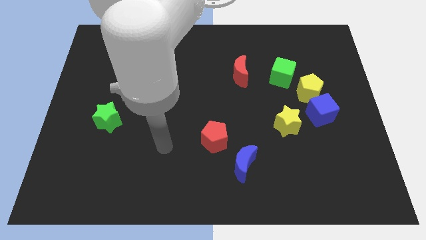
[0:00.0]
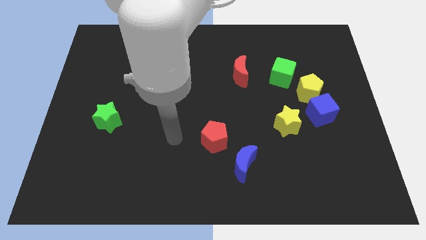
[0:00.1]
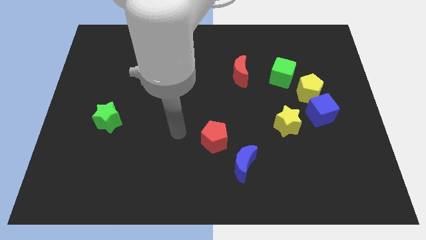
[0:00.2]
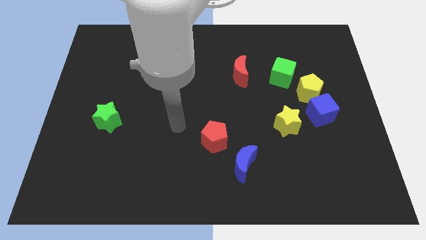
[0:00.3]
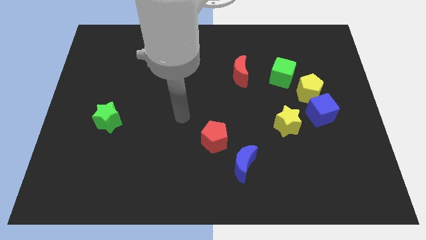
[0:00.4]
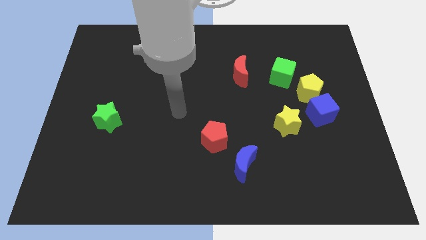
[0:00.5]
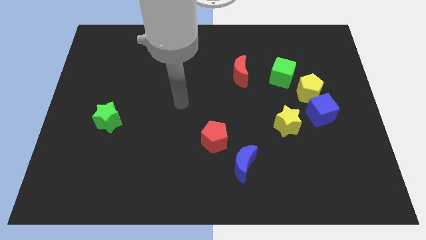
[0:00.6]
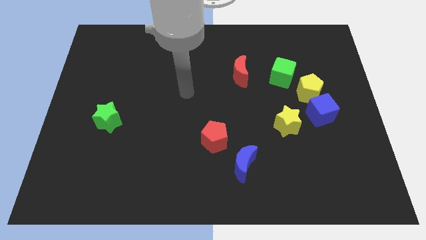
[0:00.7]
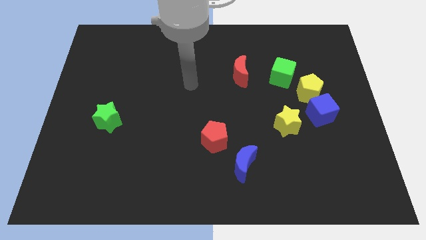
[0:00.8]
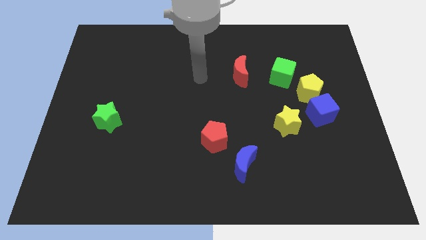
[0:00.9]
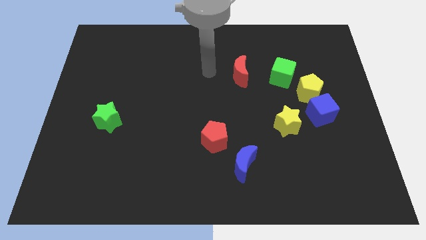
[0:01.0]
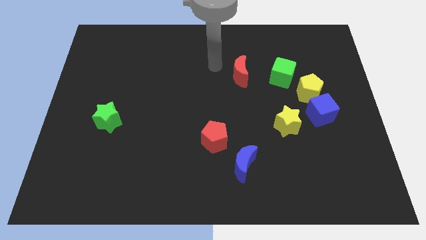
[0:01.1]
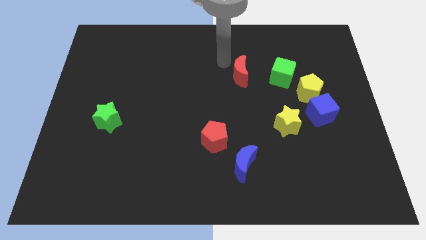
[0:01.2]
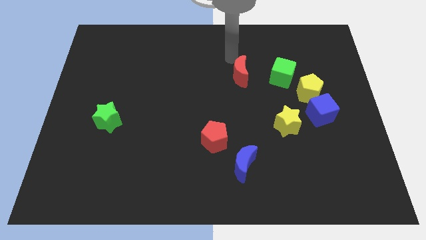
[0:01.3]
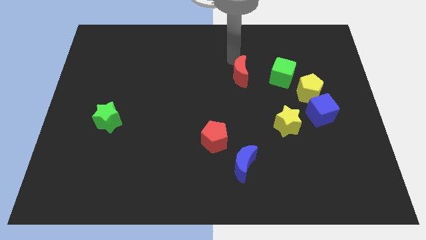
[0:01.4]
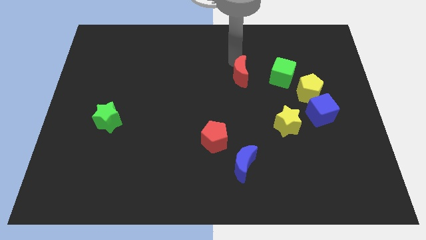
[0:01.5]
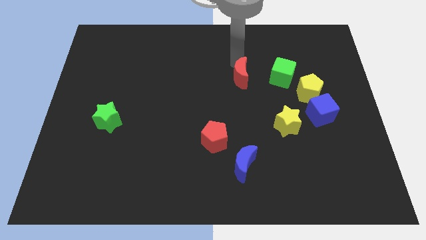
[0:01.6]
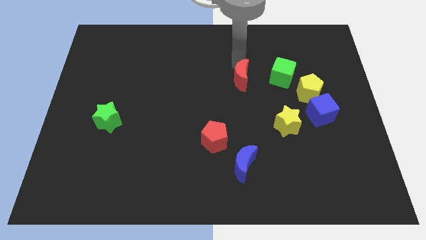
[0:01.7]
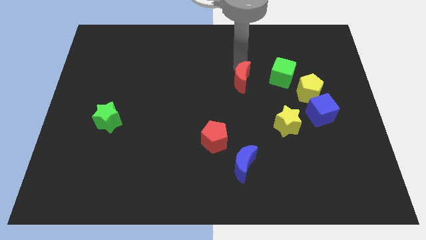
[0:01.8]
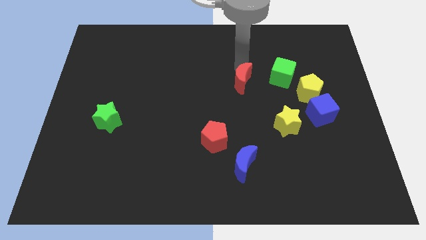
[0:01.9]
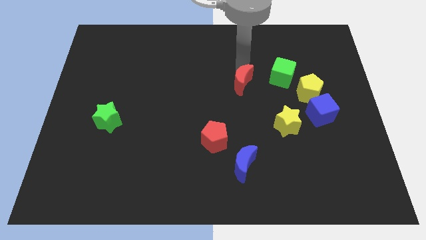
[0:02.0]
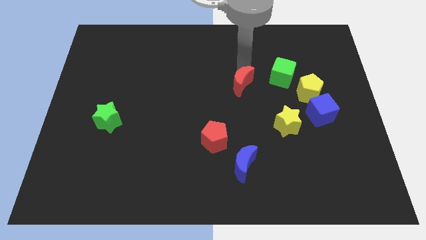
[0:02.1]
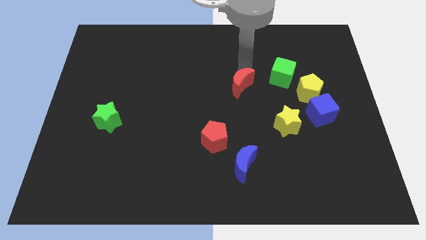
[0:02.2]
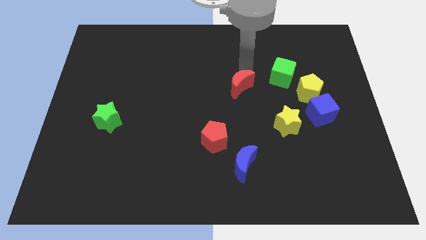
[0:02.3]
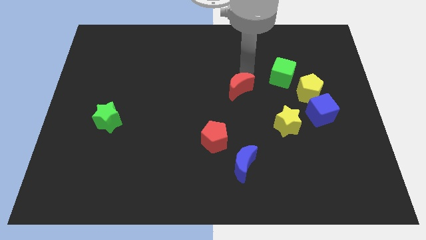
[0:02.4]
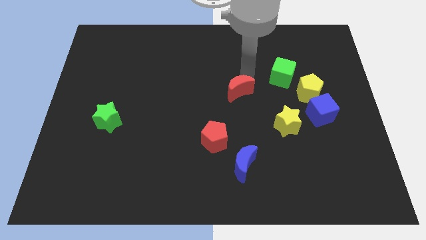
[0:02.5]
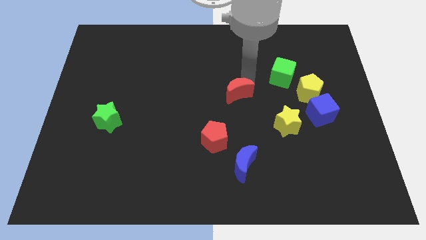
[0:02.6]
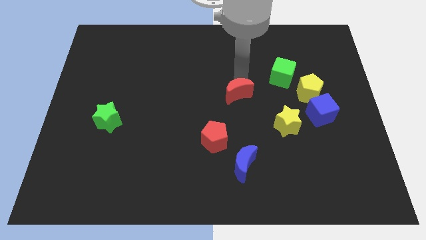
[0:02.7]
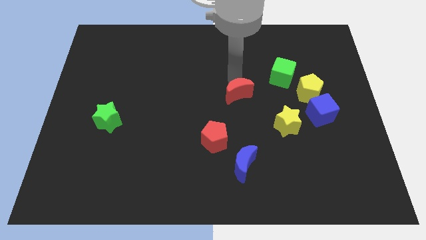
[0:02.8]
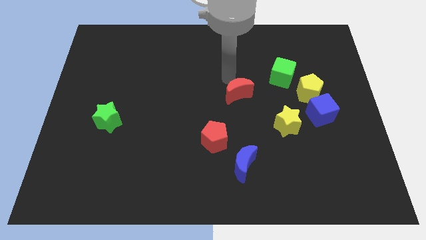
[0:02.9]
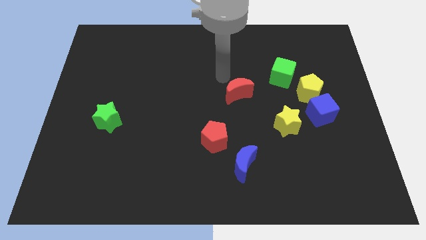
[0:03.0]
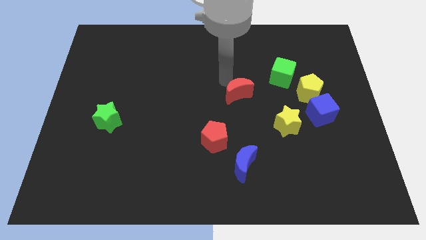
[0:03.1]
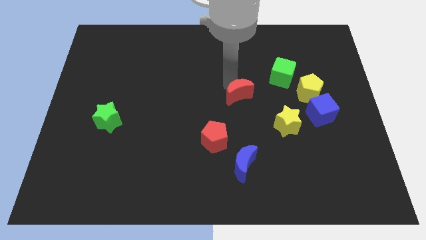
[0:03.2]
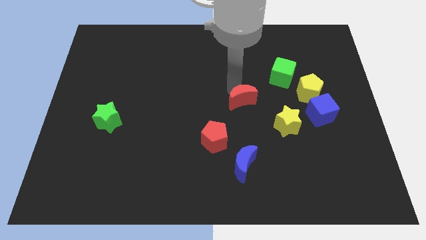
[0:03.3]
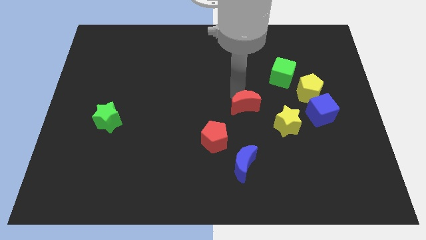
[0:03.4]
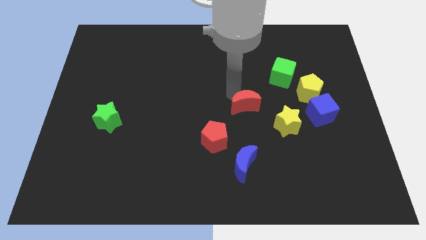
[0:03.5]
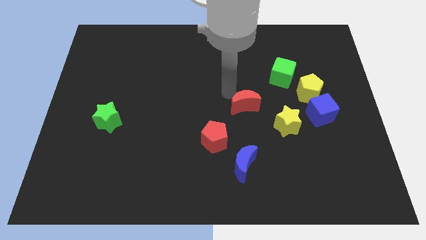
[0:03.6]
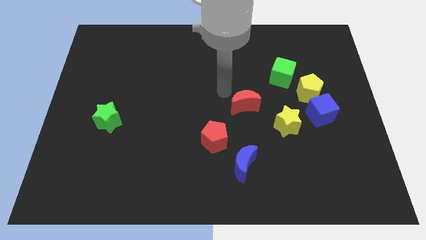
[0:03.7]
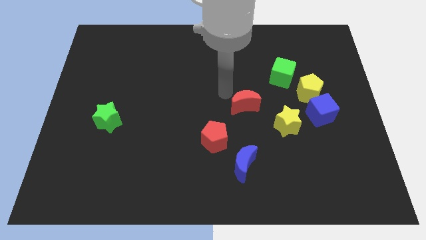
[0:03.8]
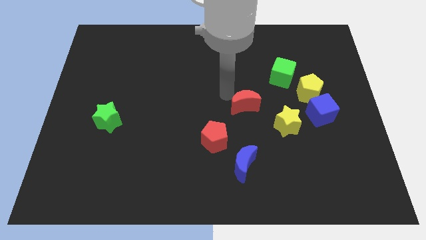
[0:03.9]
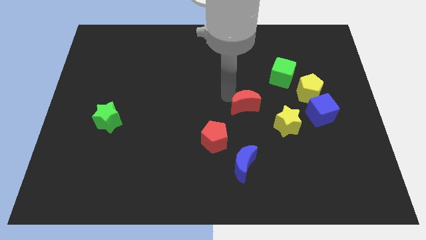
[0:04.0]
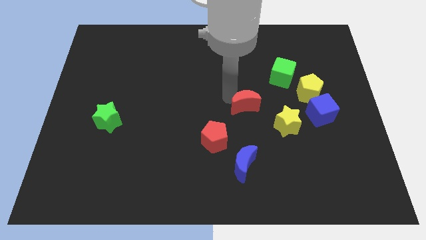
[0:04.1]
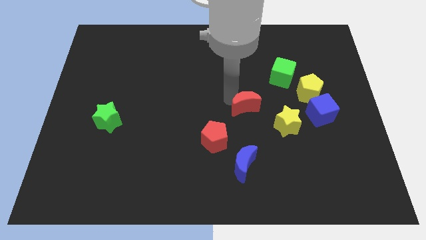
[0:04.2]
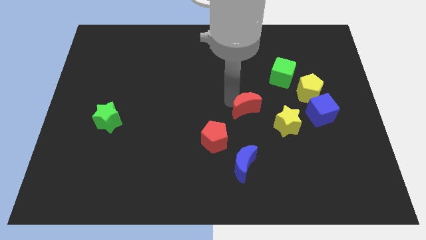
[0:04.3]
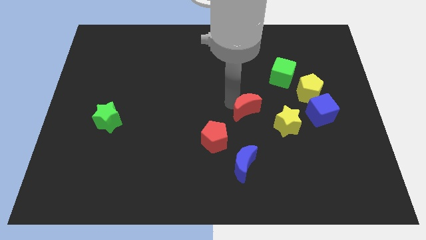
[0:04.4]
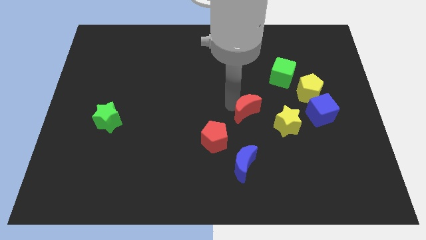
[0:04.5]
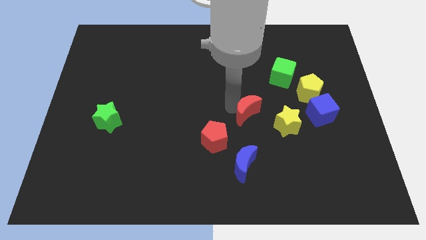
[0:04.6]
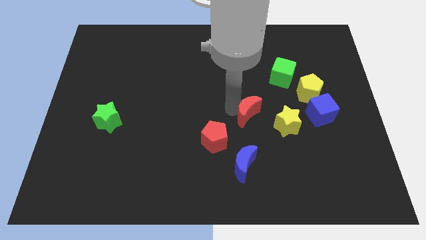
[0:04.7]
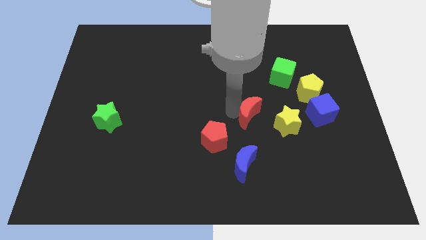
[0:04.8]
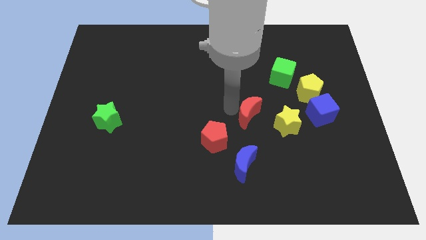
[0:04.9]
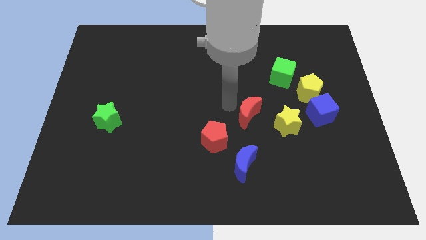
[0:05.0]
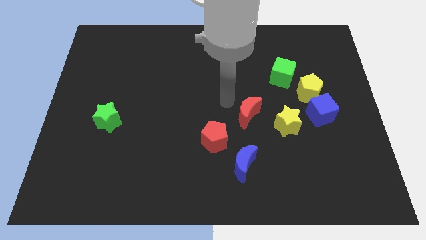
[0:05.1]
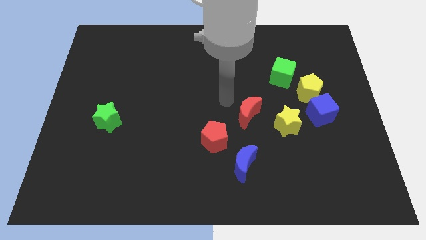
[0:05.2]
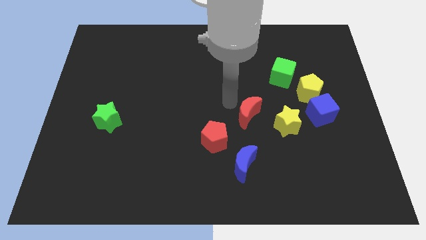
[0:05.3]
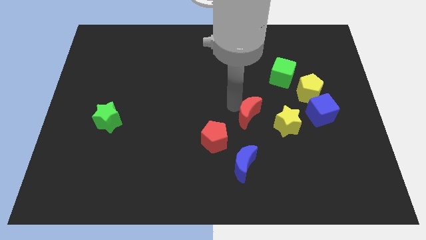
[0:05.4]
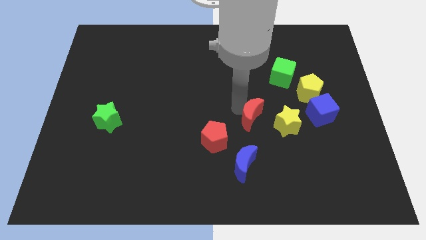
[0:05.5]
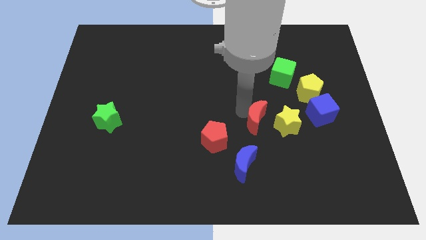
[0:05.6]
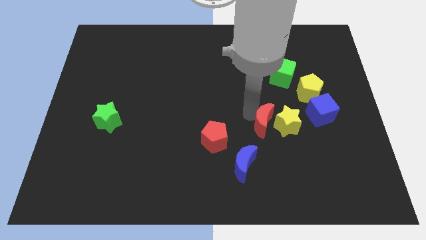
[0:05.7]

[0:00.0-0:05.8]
put the red moon diagonally down and to the left of the yellow star
